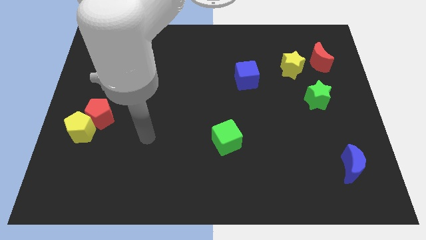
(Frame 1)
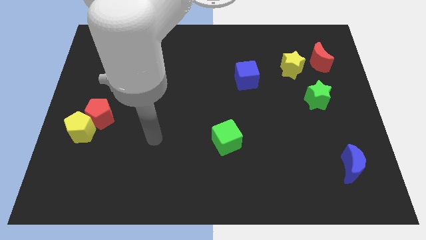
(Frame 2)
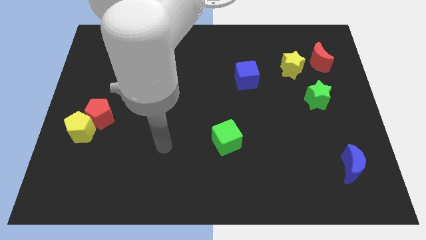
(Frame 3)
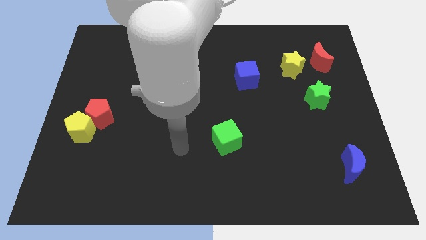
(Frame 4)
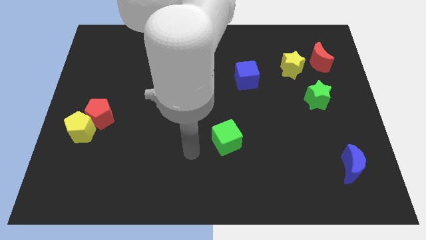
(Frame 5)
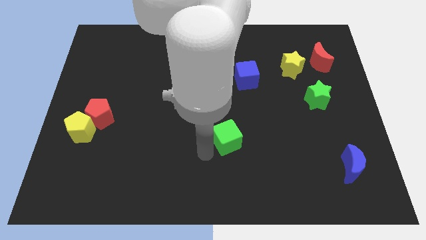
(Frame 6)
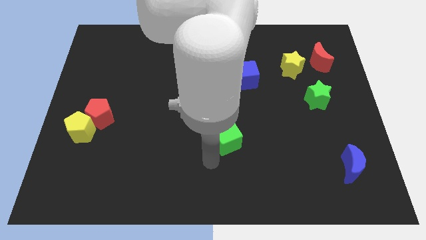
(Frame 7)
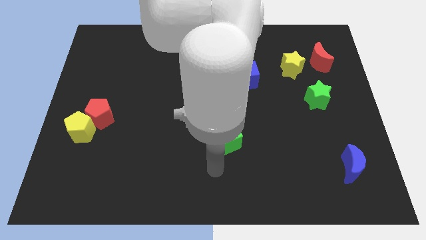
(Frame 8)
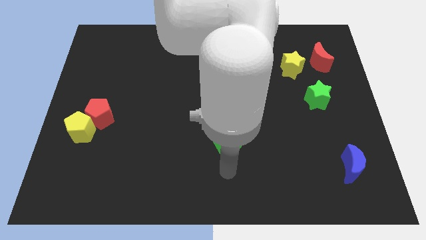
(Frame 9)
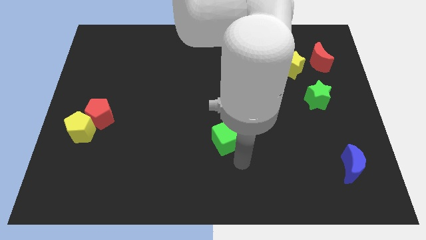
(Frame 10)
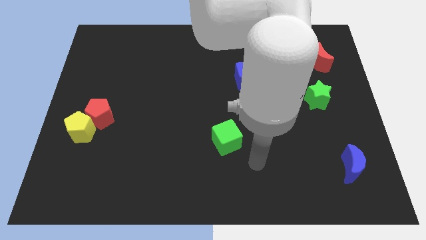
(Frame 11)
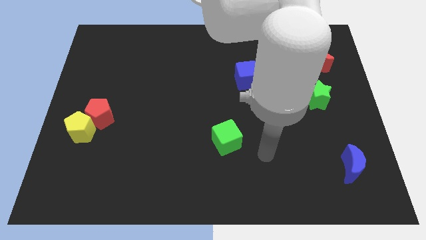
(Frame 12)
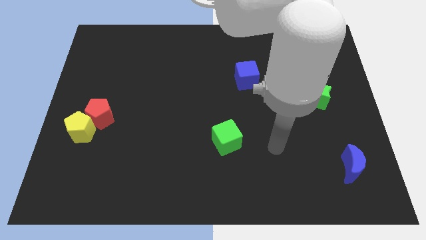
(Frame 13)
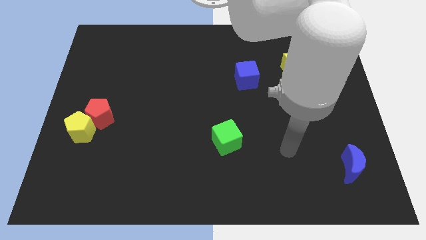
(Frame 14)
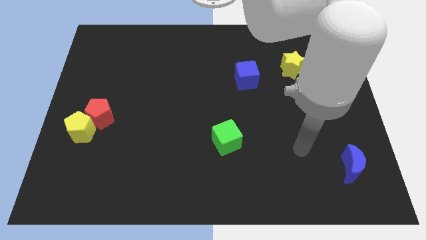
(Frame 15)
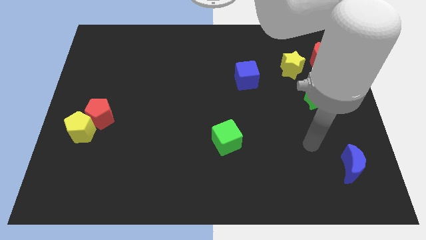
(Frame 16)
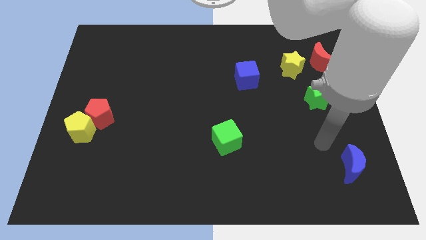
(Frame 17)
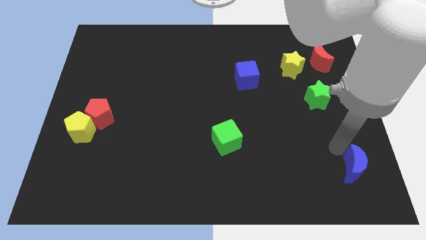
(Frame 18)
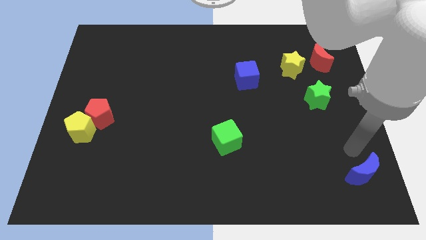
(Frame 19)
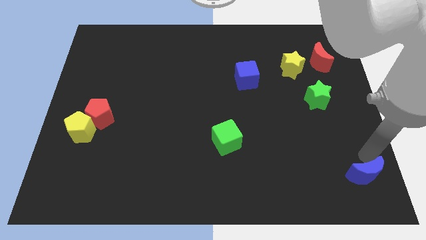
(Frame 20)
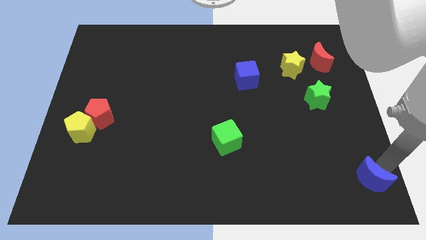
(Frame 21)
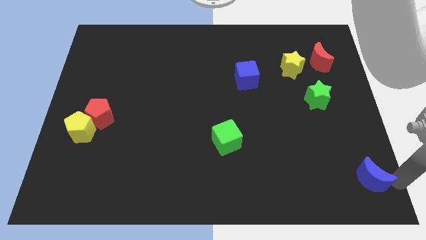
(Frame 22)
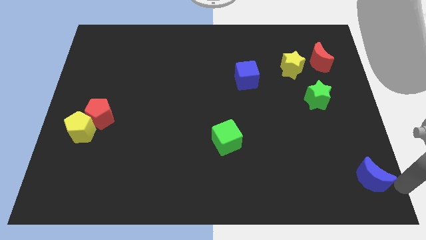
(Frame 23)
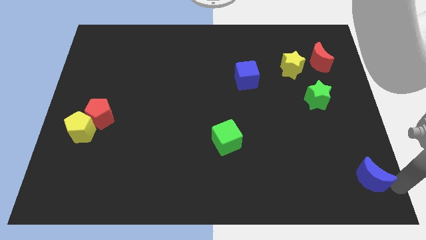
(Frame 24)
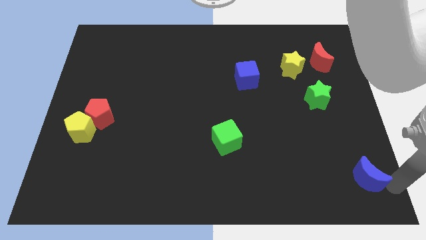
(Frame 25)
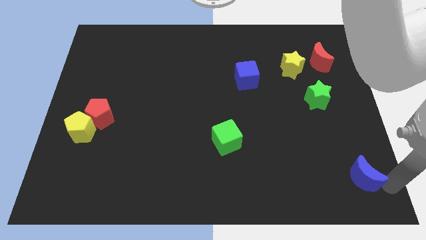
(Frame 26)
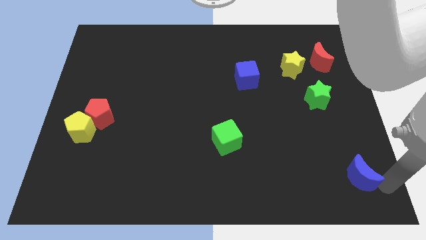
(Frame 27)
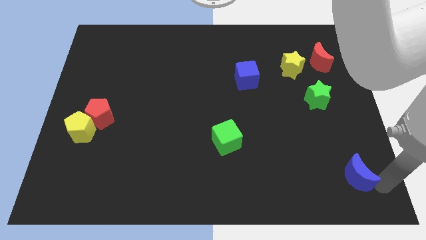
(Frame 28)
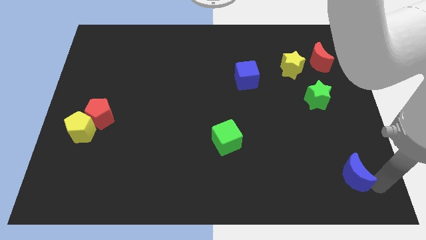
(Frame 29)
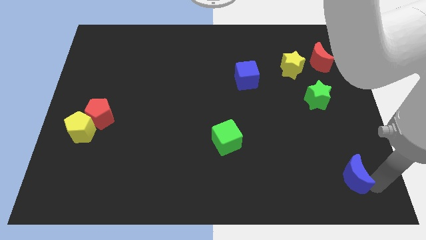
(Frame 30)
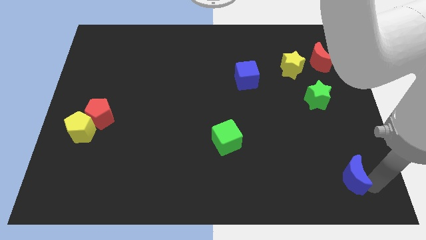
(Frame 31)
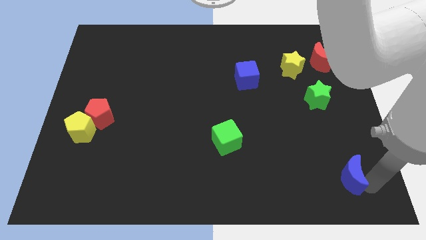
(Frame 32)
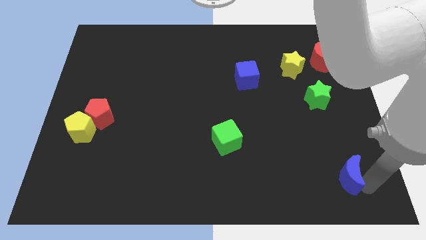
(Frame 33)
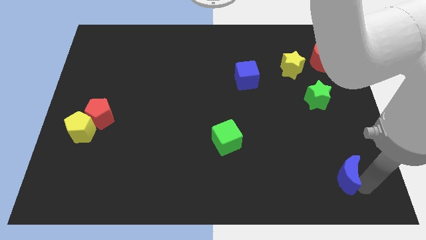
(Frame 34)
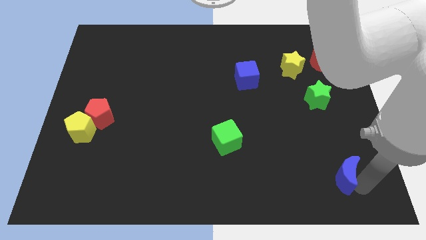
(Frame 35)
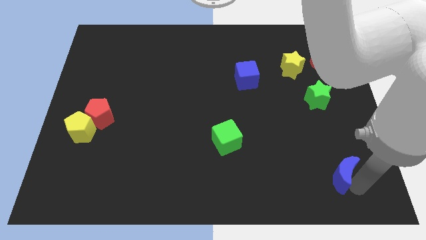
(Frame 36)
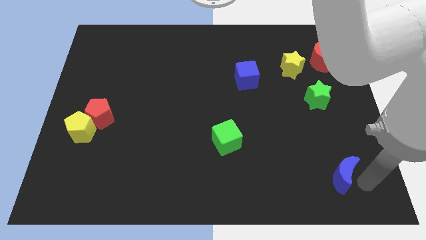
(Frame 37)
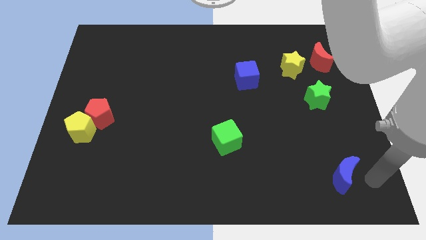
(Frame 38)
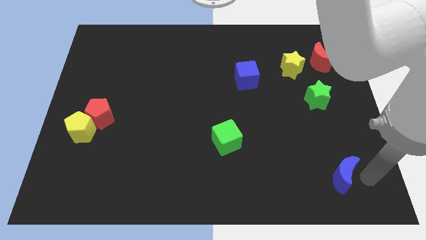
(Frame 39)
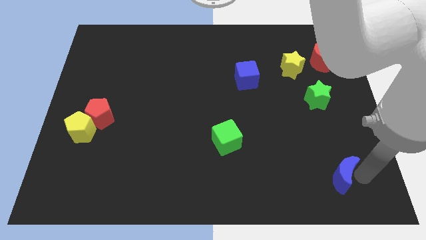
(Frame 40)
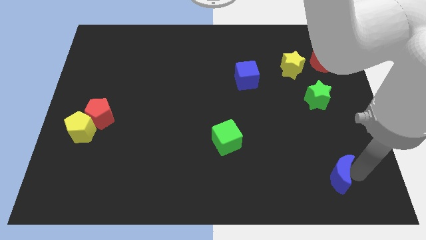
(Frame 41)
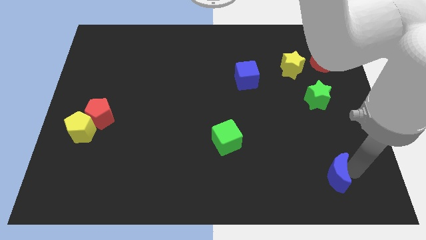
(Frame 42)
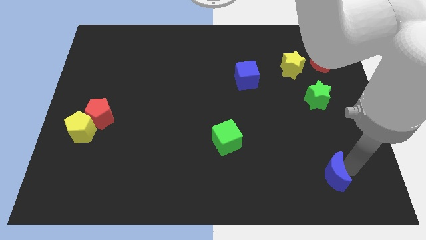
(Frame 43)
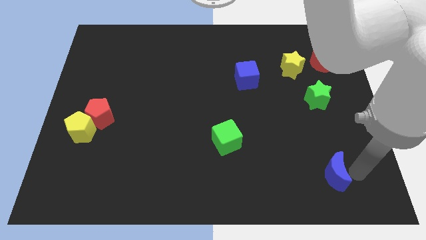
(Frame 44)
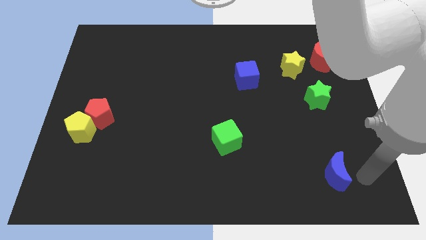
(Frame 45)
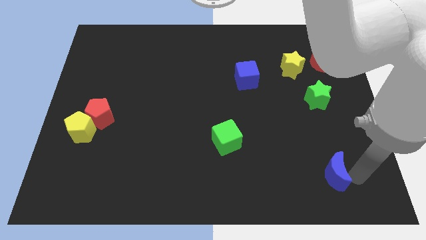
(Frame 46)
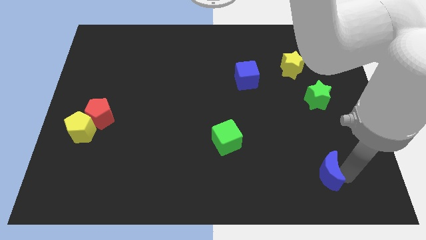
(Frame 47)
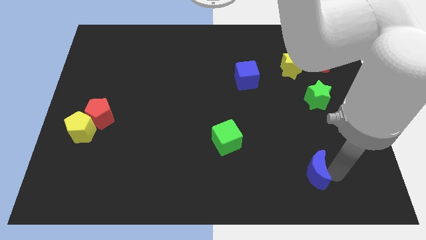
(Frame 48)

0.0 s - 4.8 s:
slide the blue moon to the left a bit

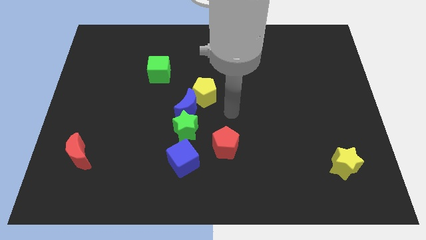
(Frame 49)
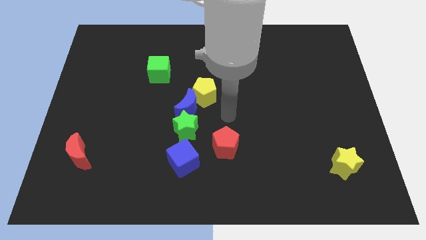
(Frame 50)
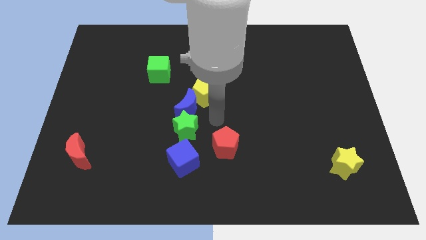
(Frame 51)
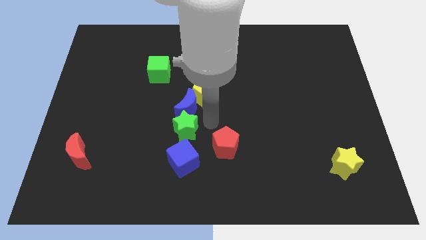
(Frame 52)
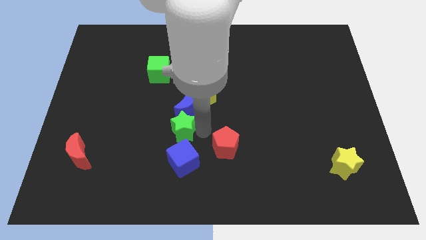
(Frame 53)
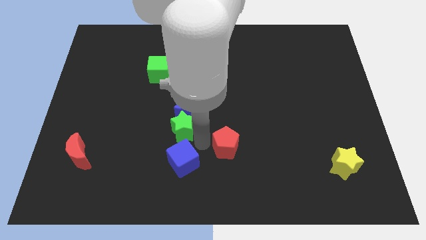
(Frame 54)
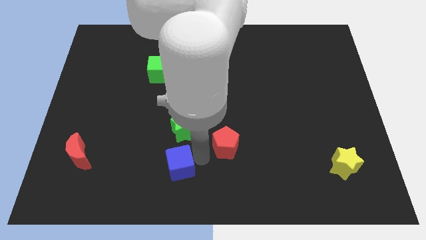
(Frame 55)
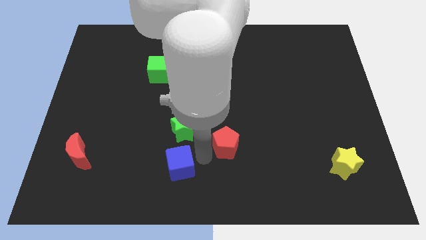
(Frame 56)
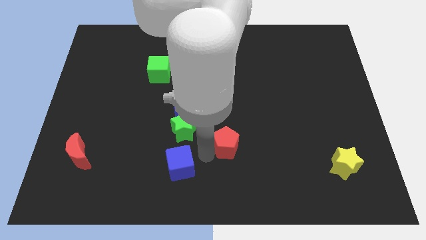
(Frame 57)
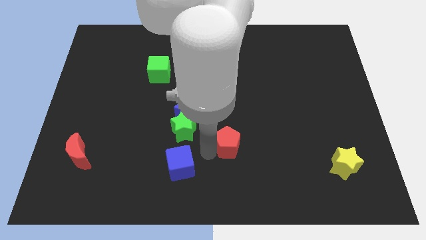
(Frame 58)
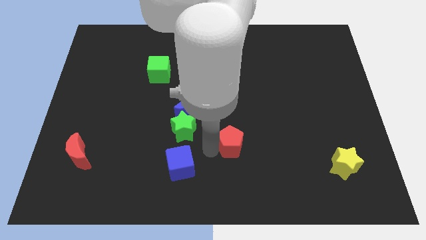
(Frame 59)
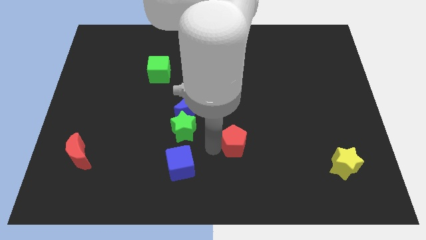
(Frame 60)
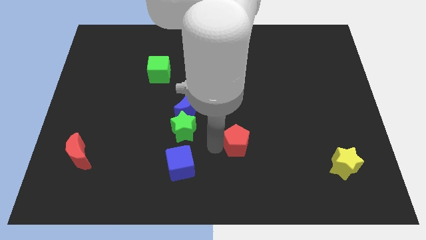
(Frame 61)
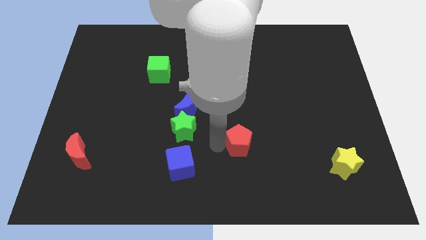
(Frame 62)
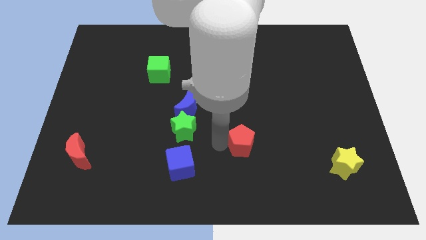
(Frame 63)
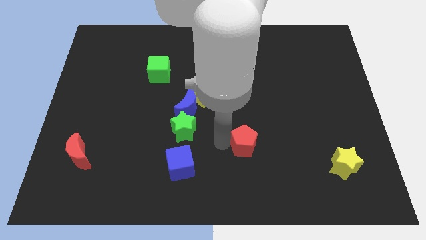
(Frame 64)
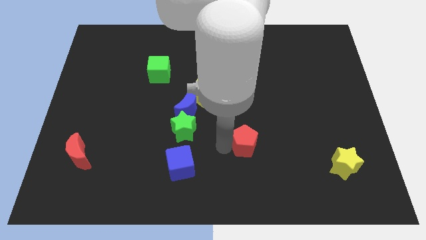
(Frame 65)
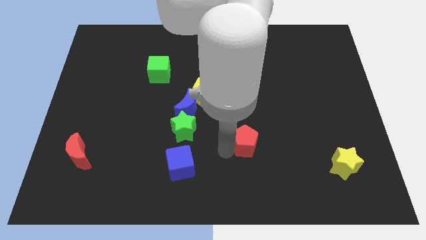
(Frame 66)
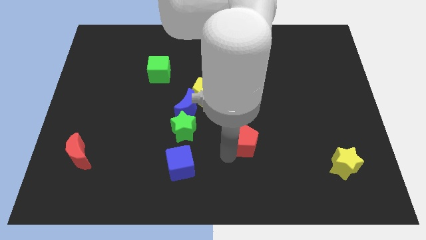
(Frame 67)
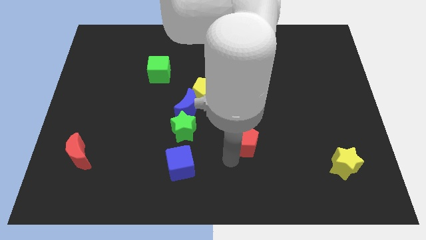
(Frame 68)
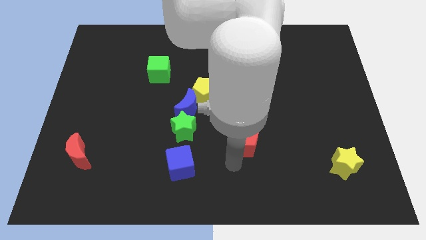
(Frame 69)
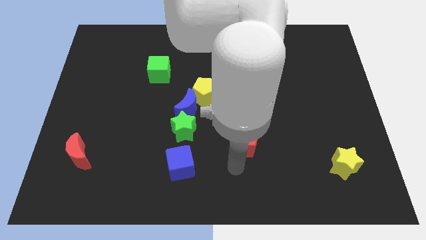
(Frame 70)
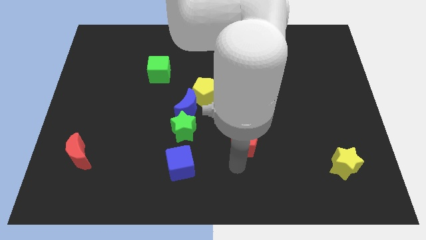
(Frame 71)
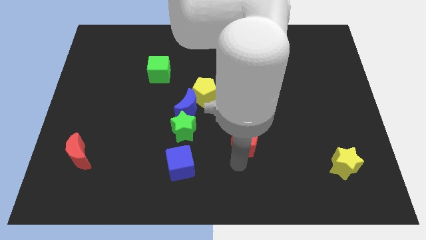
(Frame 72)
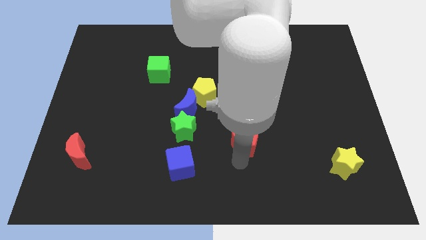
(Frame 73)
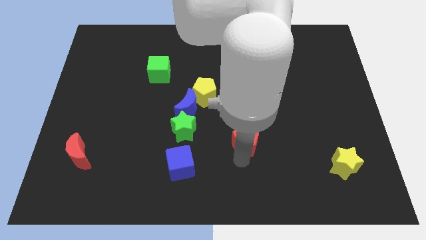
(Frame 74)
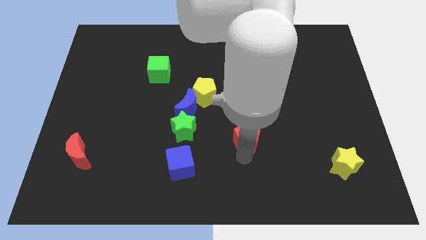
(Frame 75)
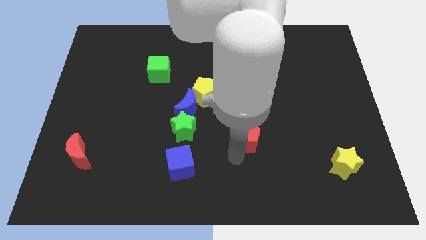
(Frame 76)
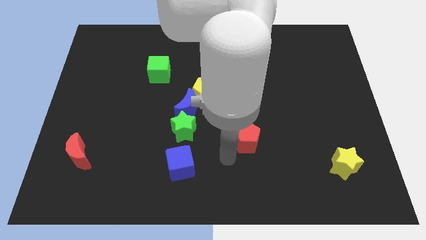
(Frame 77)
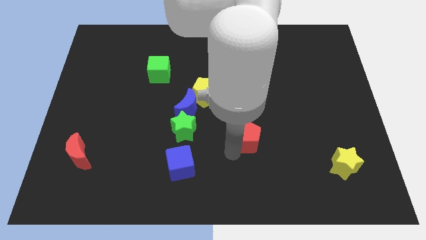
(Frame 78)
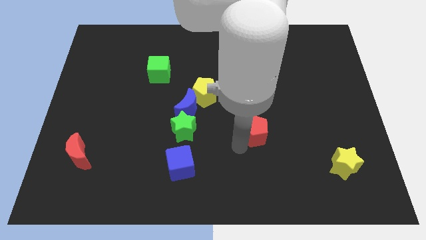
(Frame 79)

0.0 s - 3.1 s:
move the red pentagon diagonally upwards and to the right a little bit

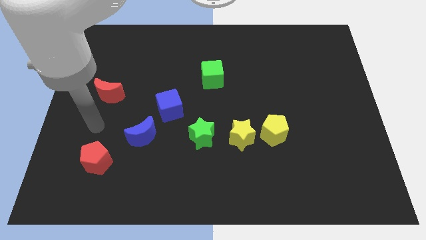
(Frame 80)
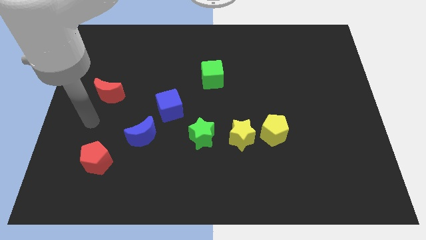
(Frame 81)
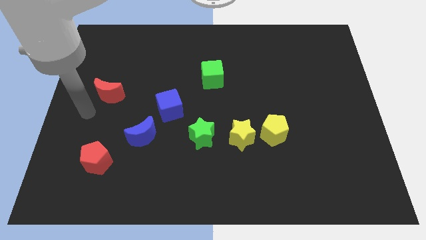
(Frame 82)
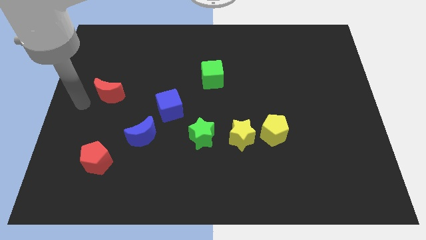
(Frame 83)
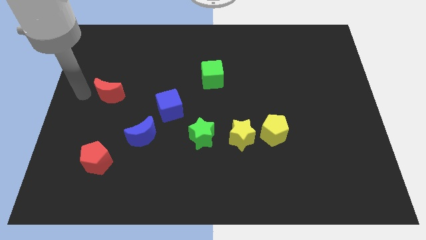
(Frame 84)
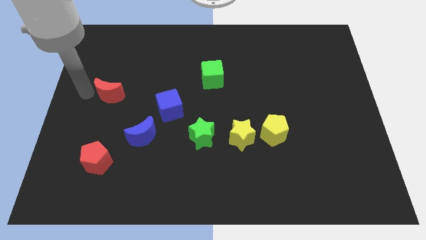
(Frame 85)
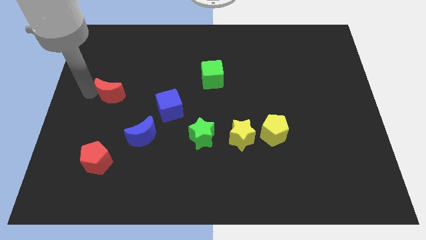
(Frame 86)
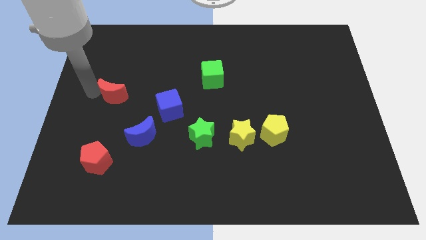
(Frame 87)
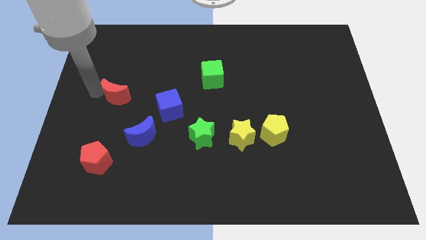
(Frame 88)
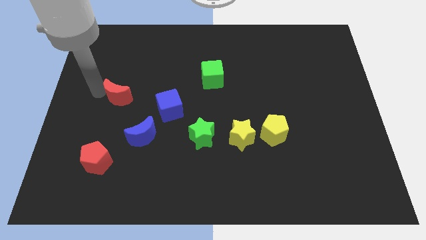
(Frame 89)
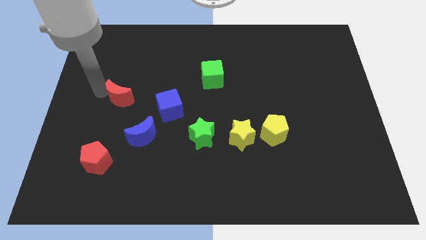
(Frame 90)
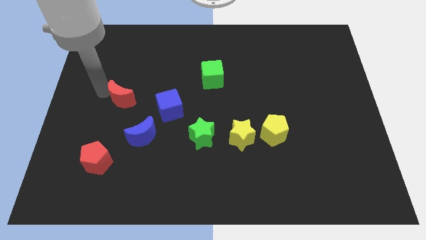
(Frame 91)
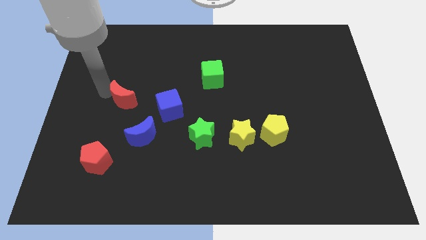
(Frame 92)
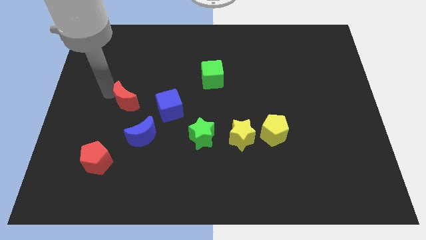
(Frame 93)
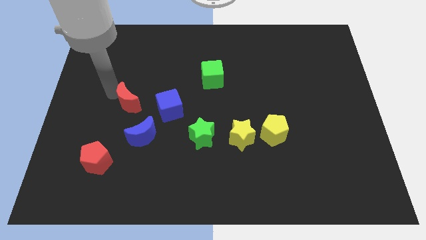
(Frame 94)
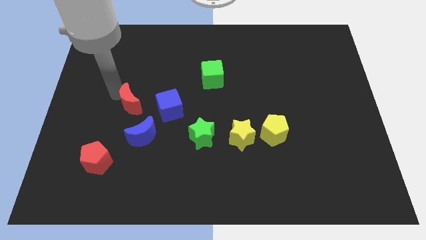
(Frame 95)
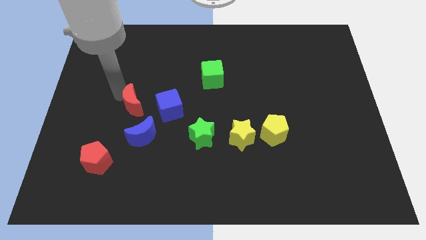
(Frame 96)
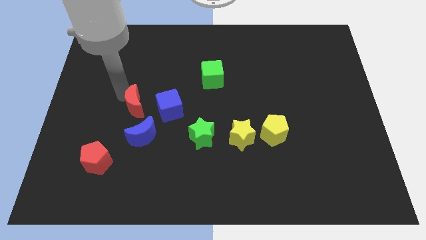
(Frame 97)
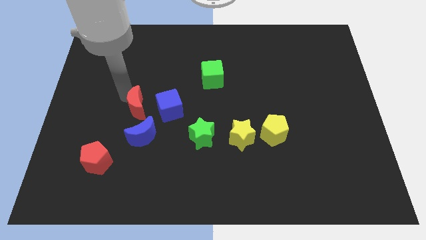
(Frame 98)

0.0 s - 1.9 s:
push the red moon right slightly
